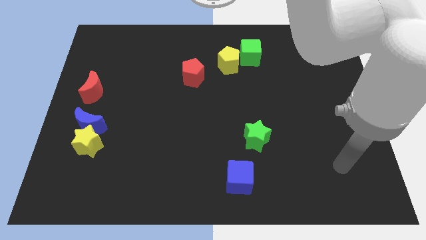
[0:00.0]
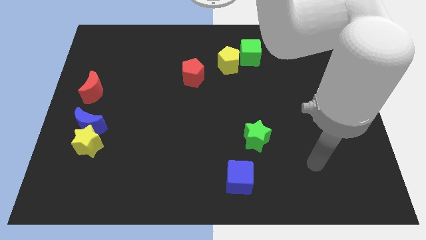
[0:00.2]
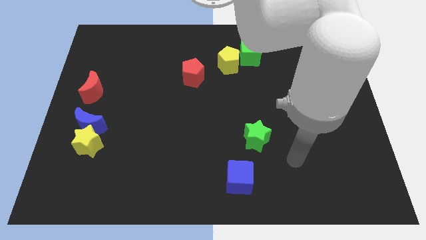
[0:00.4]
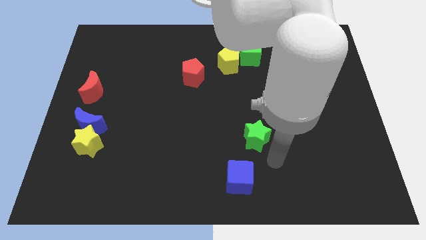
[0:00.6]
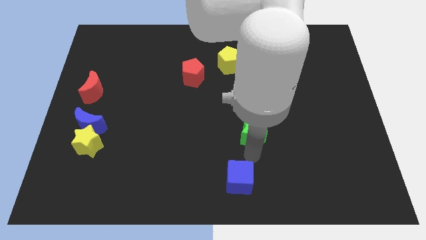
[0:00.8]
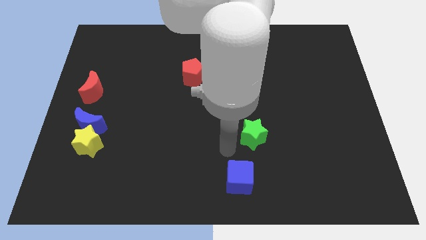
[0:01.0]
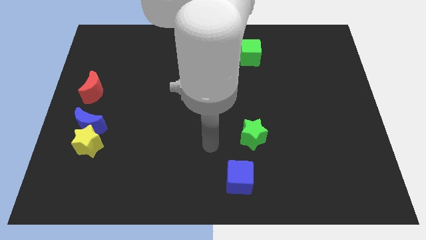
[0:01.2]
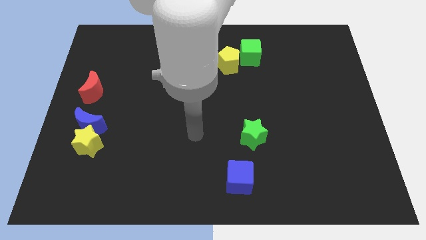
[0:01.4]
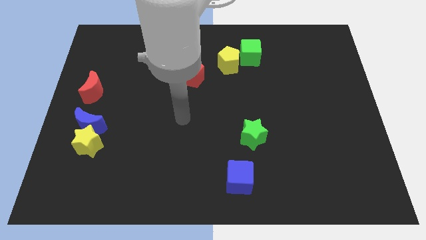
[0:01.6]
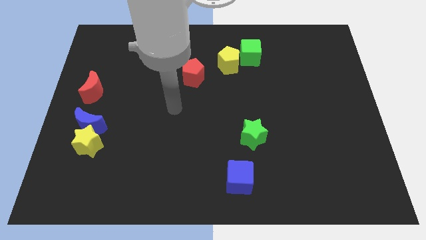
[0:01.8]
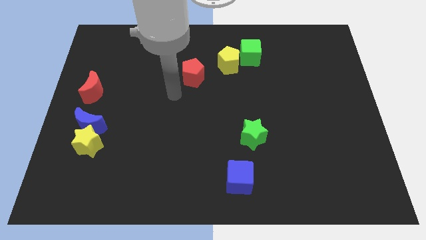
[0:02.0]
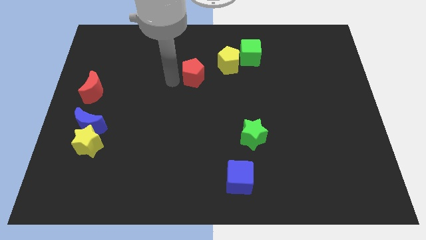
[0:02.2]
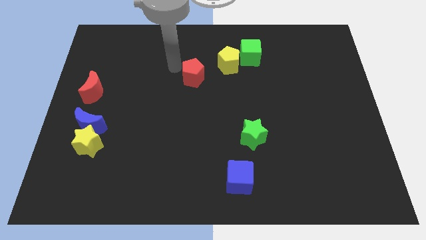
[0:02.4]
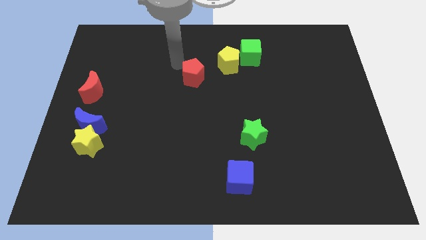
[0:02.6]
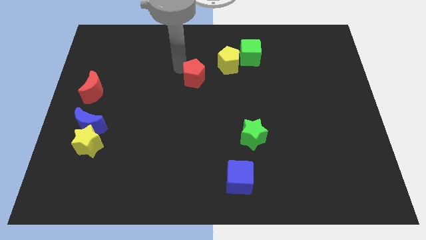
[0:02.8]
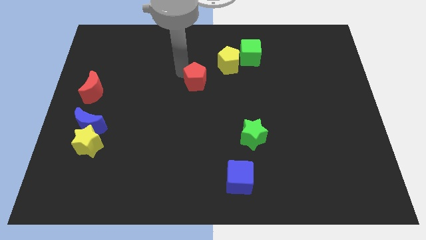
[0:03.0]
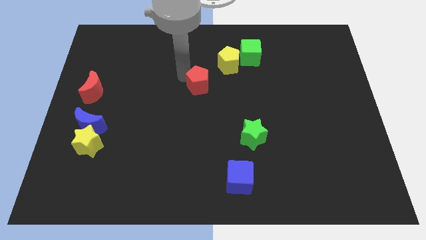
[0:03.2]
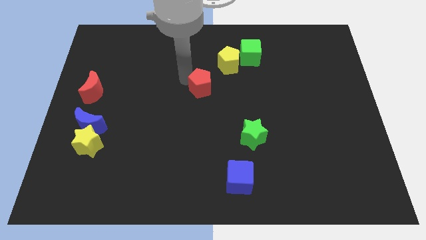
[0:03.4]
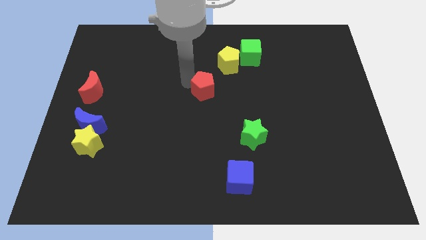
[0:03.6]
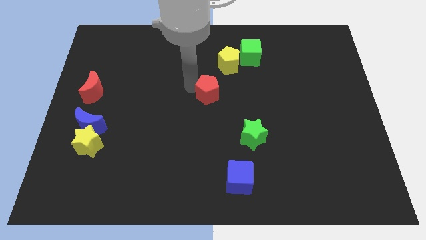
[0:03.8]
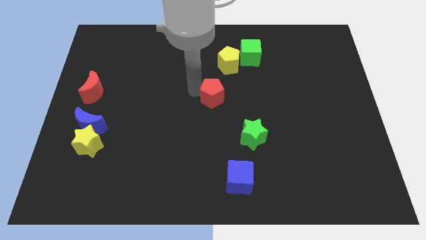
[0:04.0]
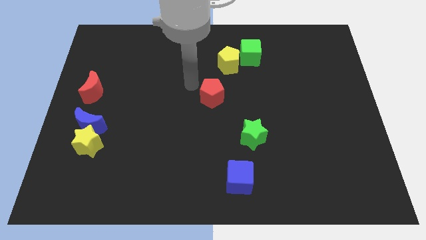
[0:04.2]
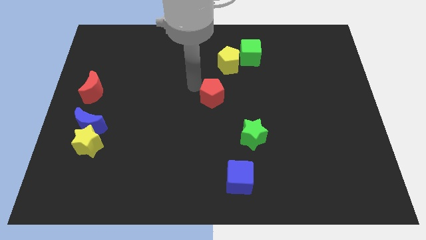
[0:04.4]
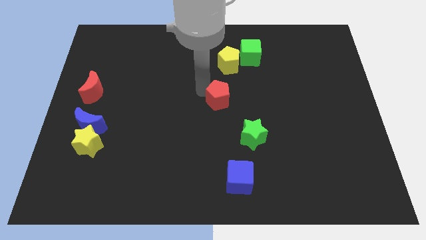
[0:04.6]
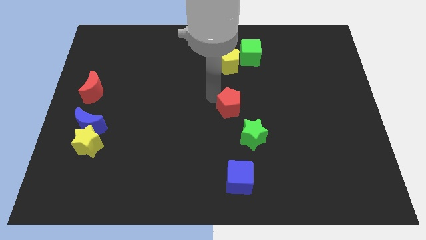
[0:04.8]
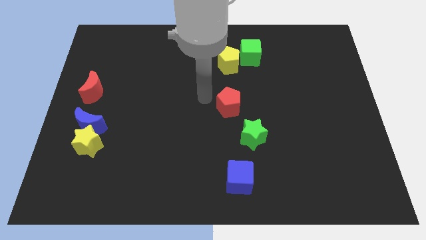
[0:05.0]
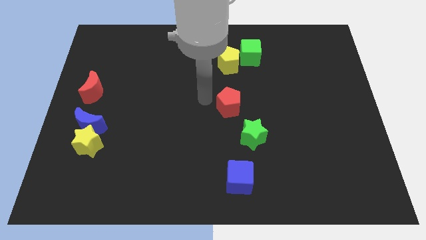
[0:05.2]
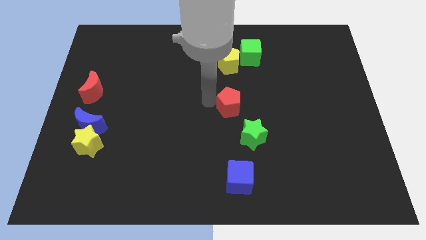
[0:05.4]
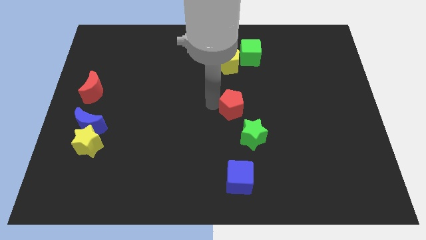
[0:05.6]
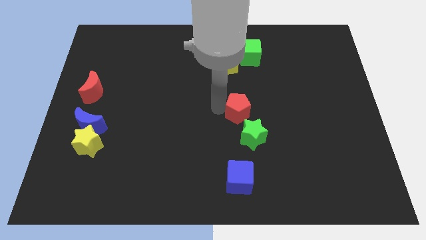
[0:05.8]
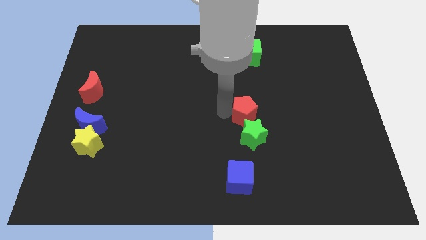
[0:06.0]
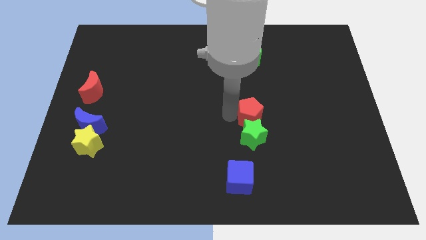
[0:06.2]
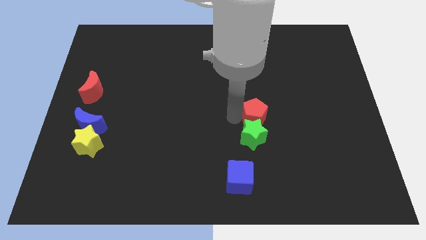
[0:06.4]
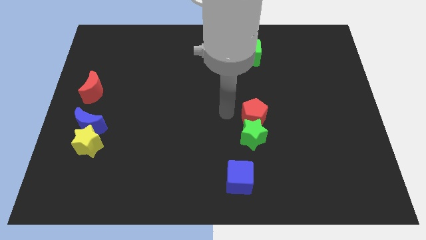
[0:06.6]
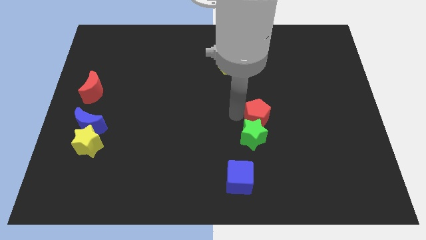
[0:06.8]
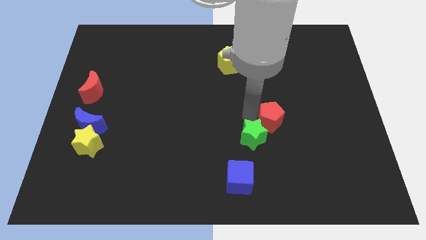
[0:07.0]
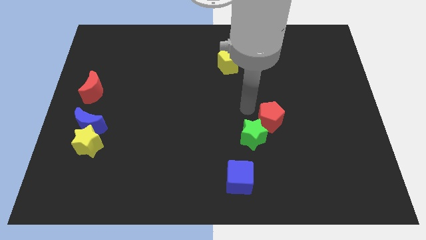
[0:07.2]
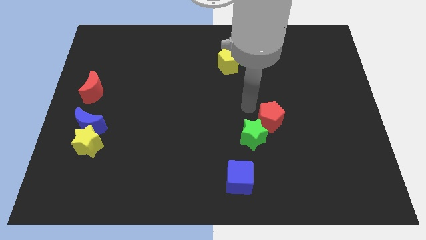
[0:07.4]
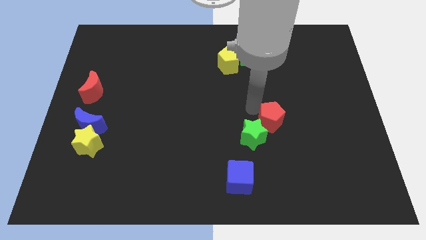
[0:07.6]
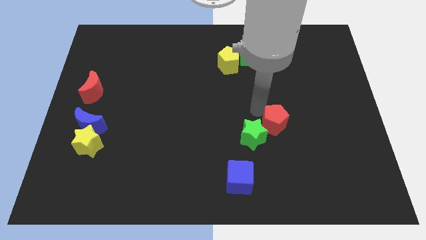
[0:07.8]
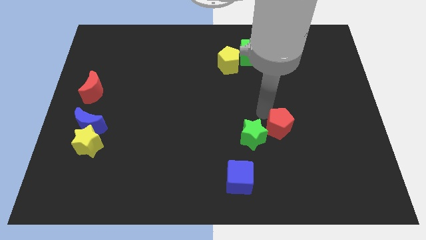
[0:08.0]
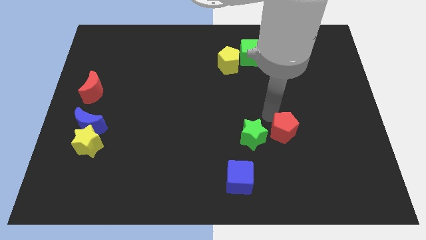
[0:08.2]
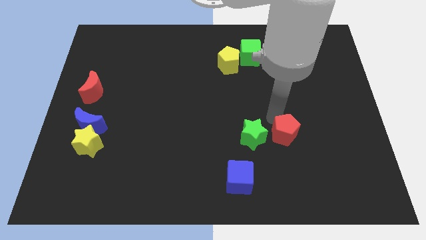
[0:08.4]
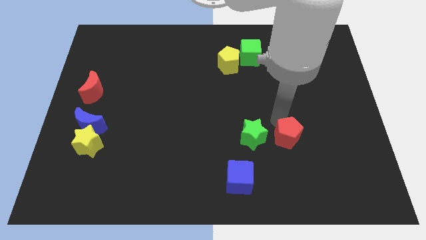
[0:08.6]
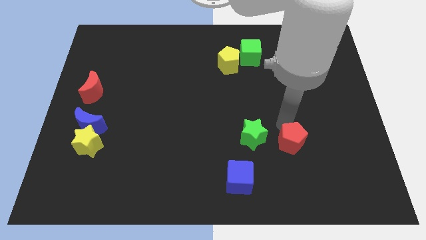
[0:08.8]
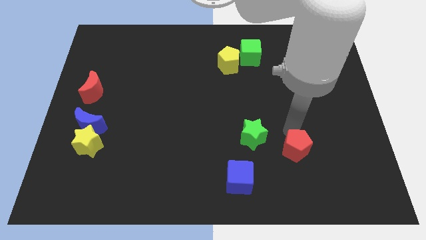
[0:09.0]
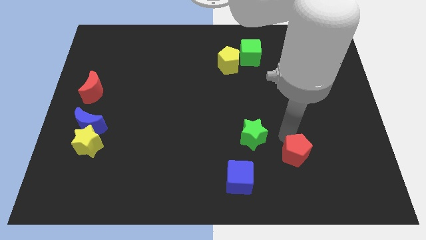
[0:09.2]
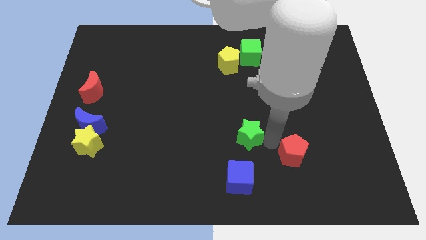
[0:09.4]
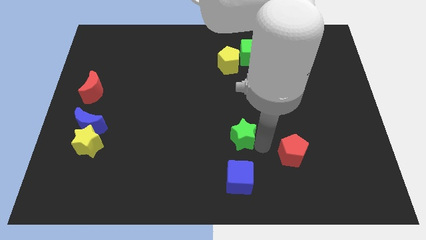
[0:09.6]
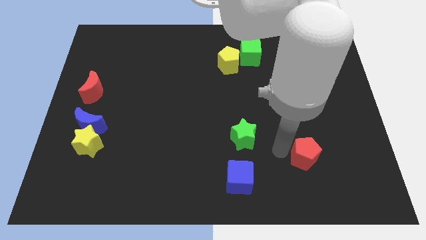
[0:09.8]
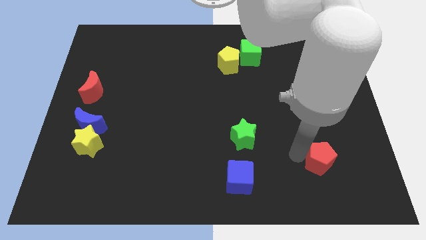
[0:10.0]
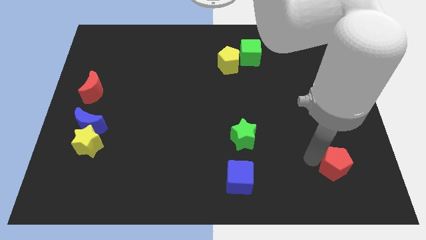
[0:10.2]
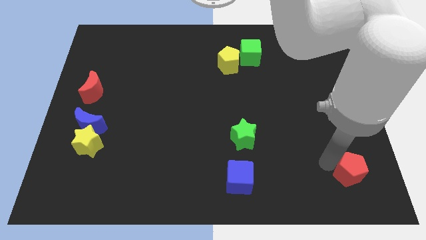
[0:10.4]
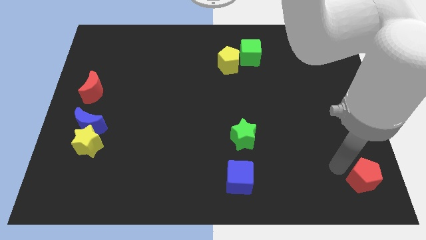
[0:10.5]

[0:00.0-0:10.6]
slide the red pentagon to the bottom right corner

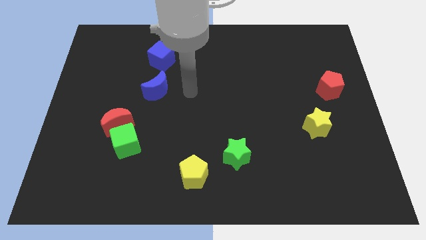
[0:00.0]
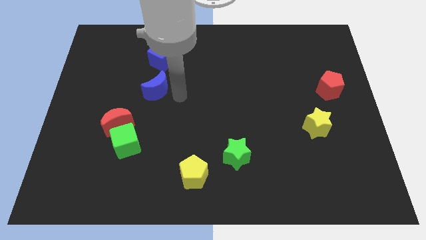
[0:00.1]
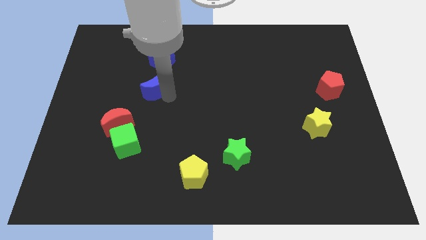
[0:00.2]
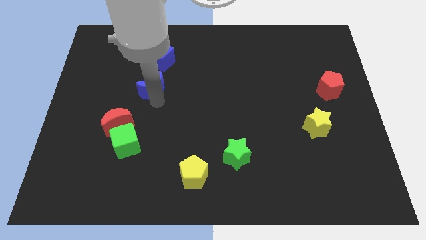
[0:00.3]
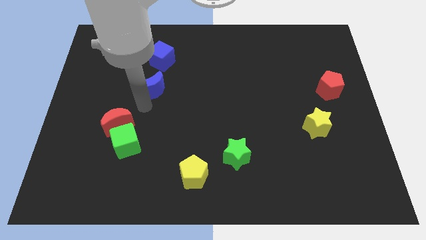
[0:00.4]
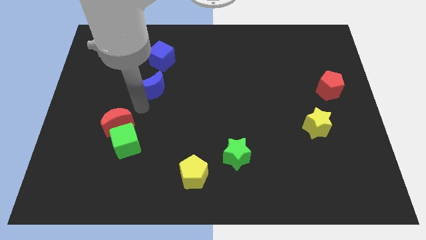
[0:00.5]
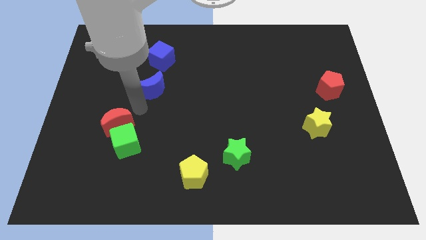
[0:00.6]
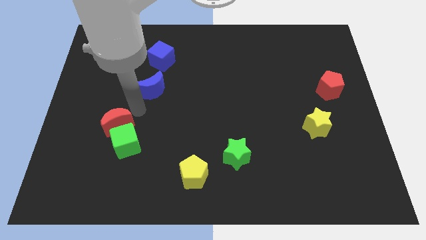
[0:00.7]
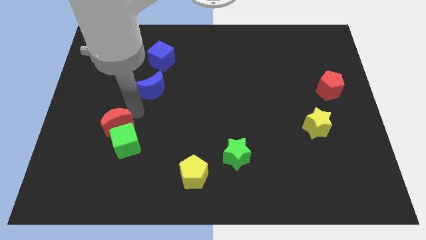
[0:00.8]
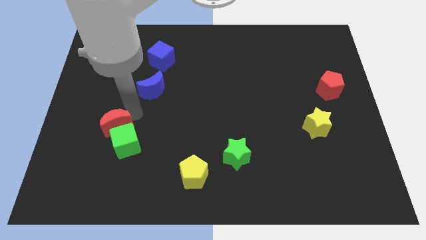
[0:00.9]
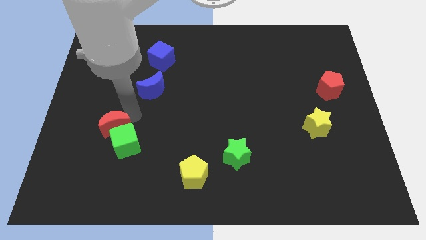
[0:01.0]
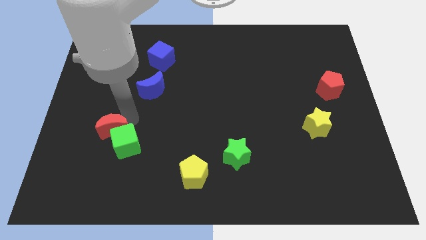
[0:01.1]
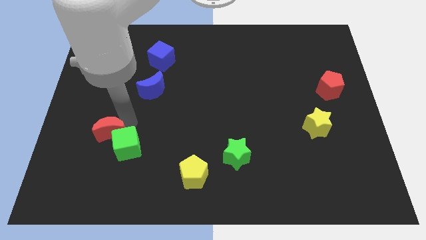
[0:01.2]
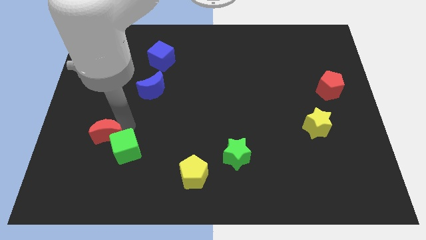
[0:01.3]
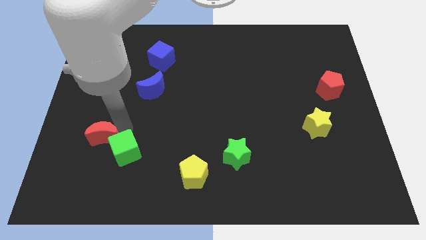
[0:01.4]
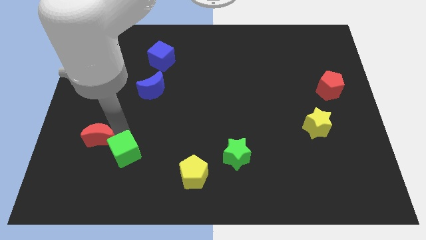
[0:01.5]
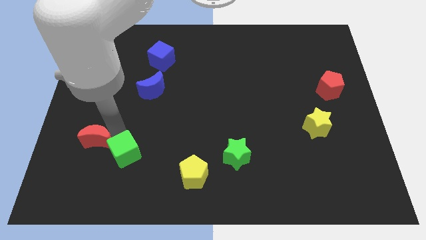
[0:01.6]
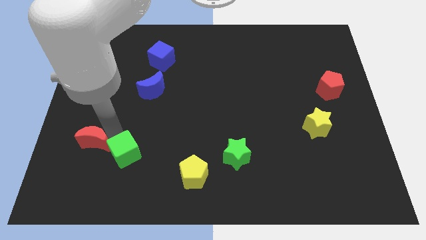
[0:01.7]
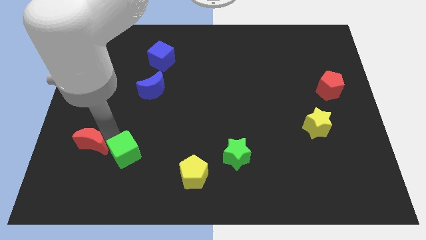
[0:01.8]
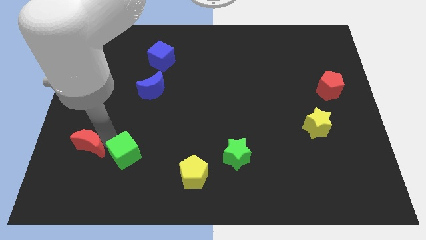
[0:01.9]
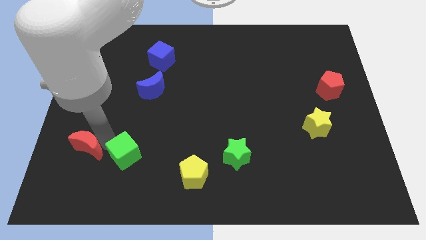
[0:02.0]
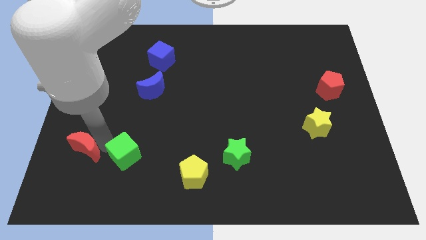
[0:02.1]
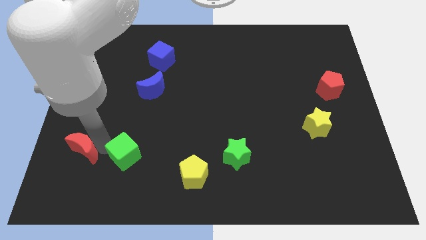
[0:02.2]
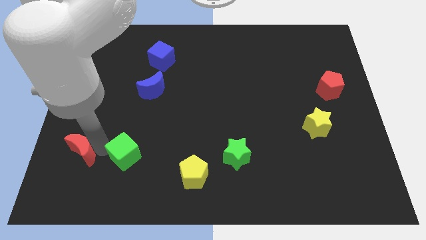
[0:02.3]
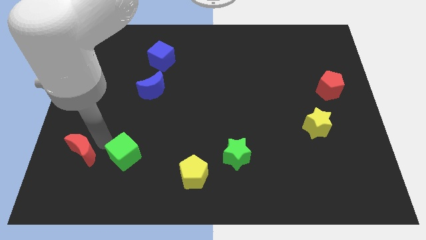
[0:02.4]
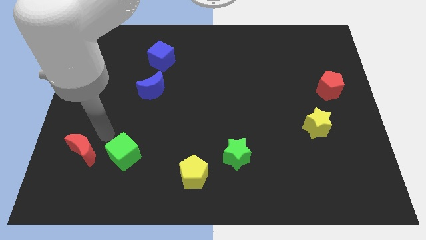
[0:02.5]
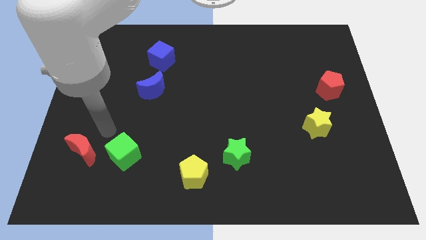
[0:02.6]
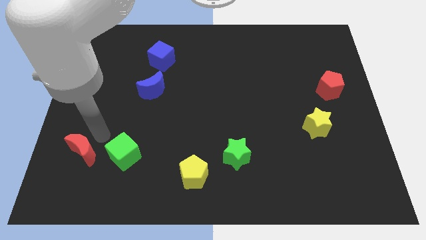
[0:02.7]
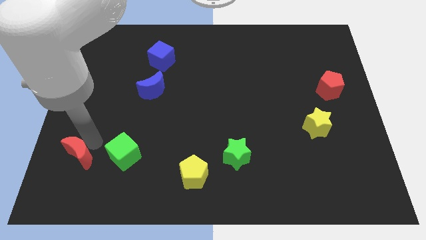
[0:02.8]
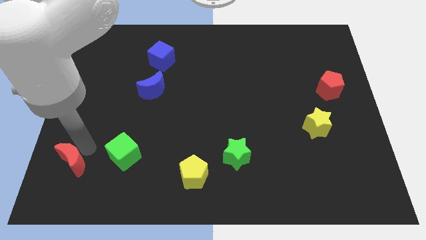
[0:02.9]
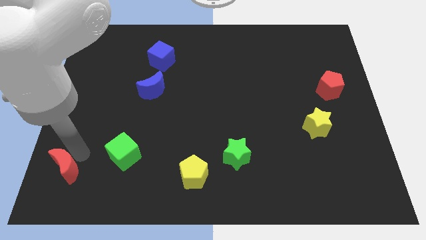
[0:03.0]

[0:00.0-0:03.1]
push the red moon to the bottom left of the board

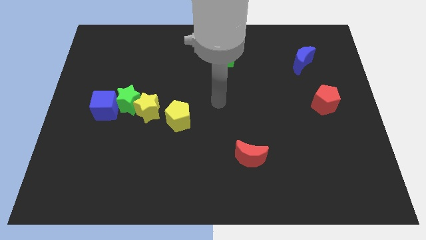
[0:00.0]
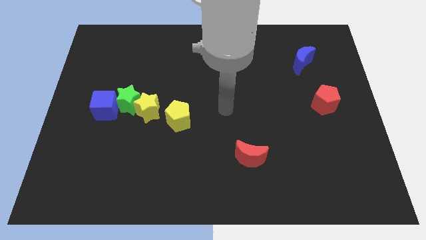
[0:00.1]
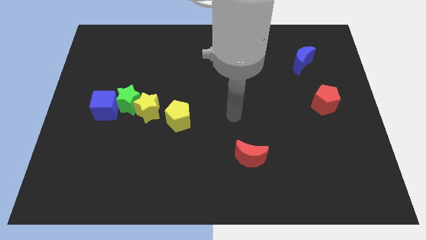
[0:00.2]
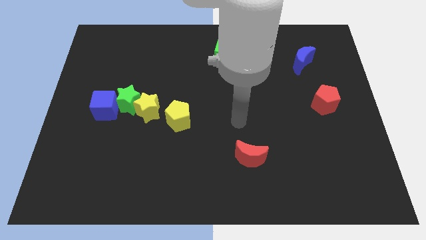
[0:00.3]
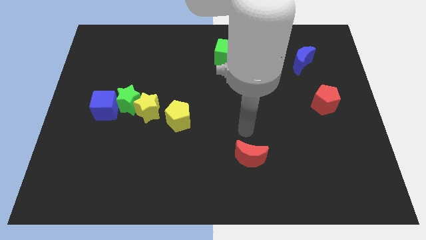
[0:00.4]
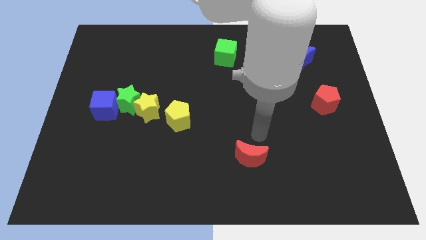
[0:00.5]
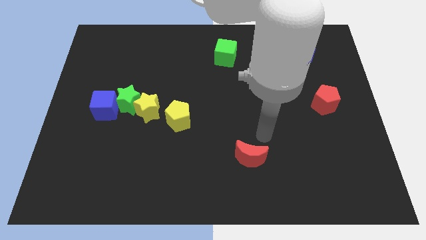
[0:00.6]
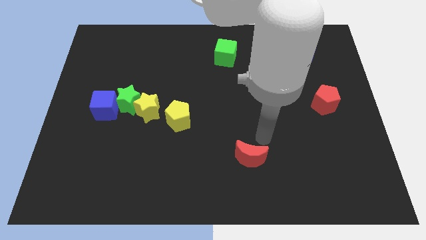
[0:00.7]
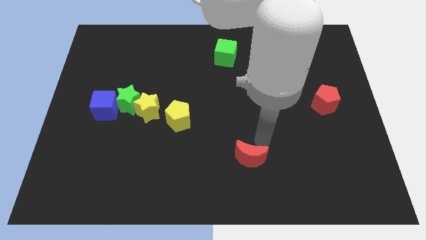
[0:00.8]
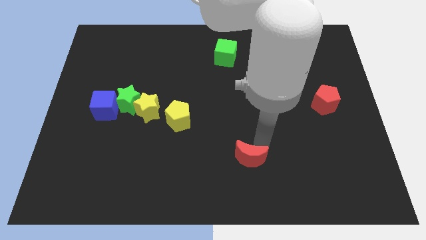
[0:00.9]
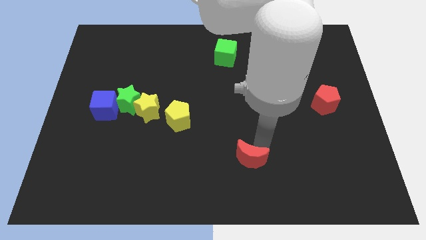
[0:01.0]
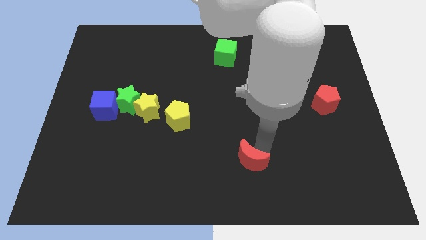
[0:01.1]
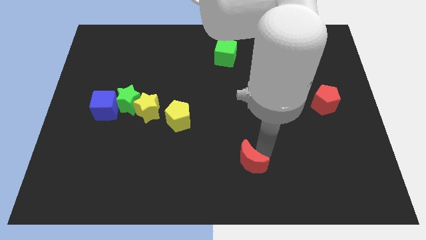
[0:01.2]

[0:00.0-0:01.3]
move the red moon to the bottom side
